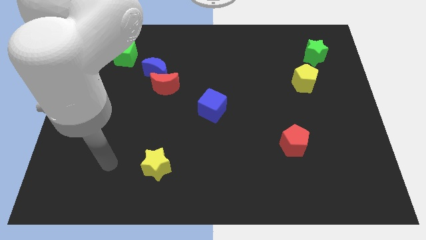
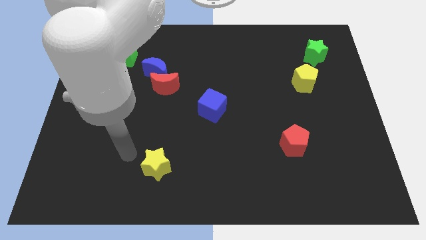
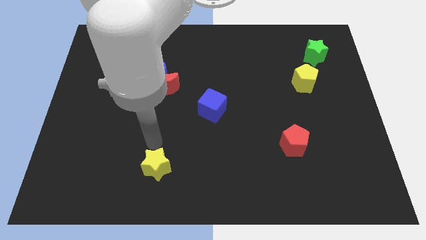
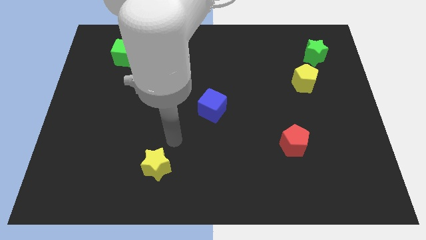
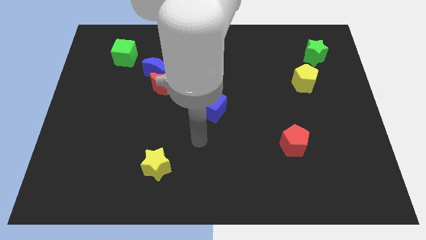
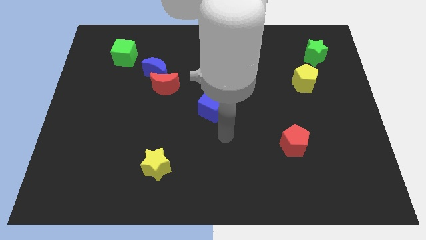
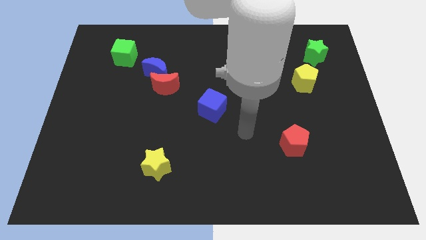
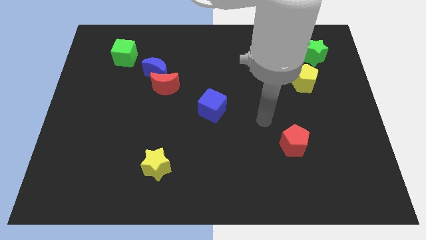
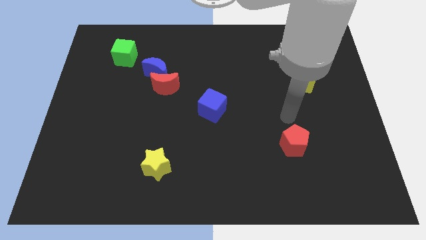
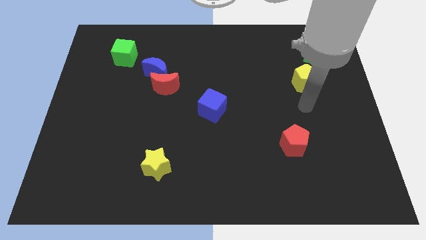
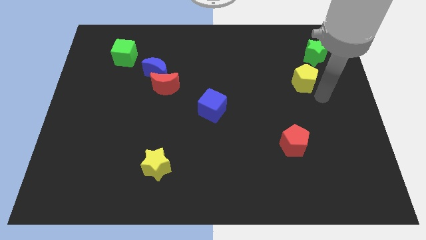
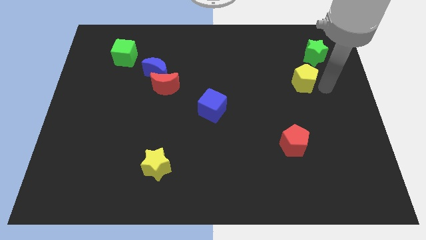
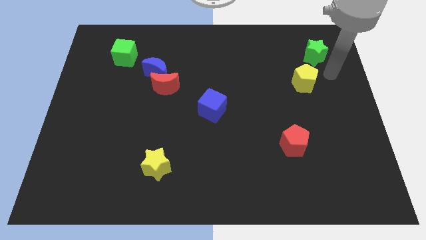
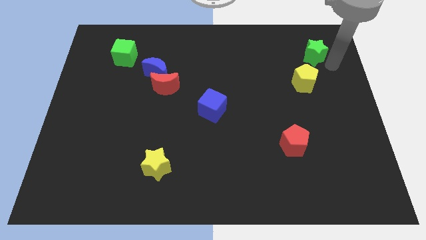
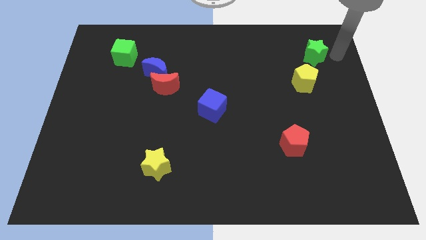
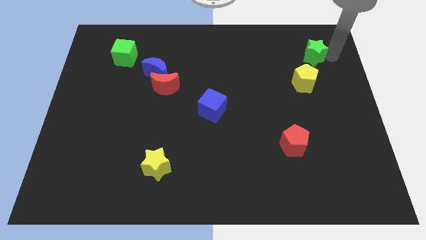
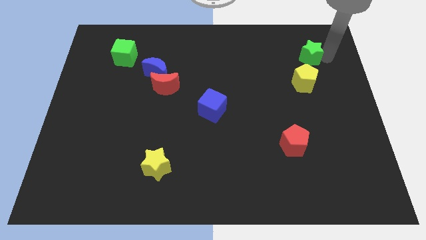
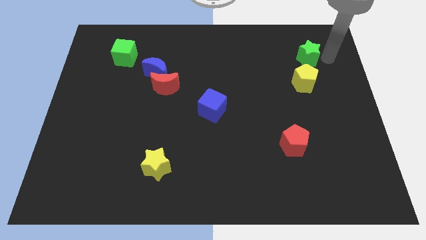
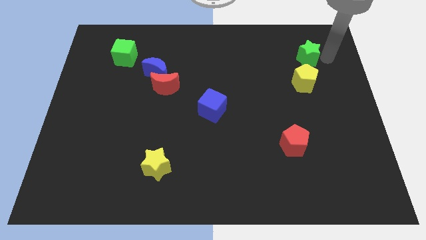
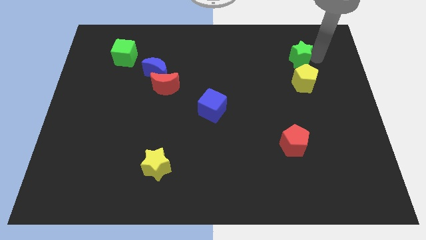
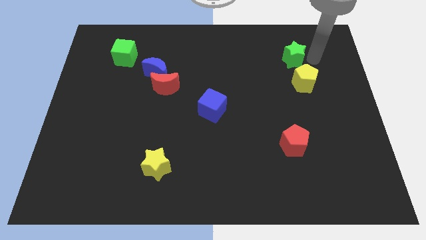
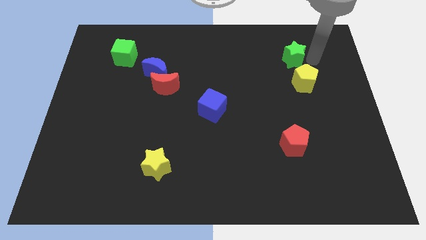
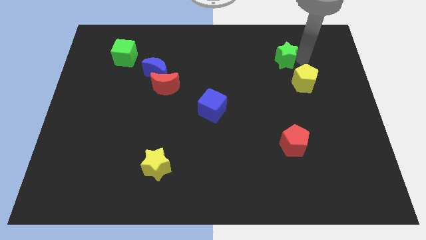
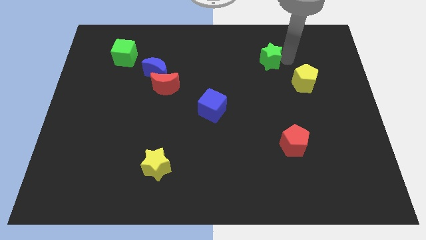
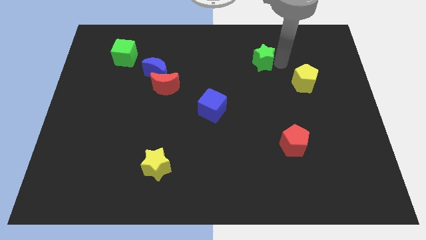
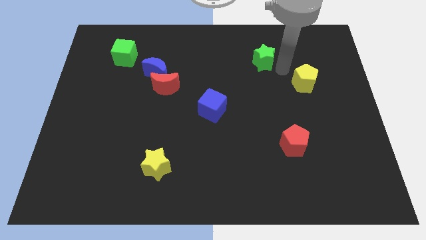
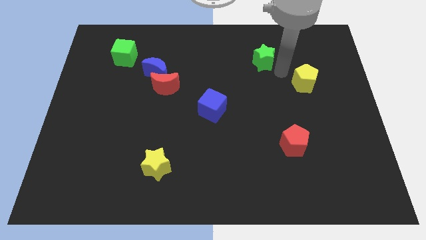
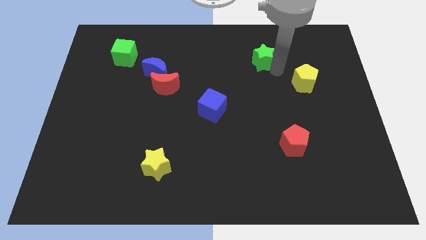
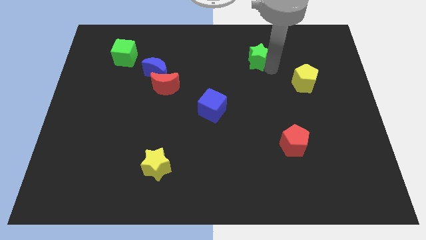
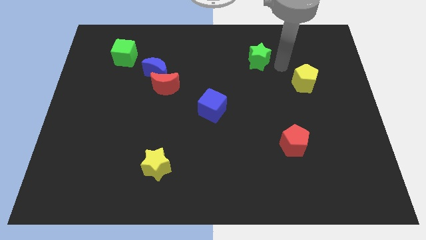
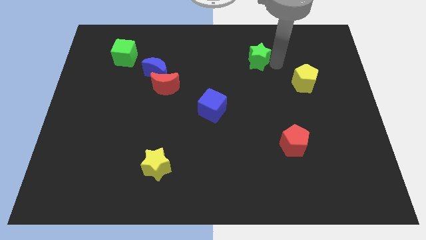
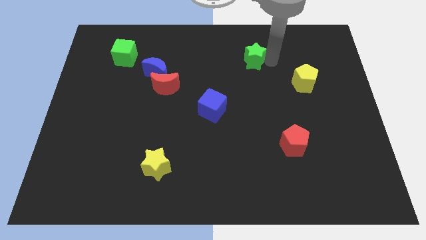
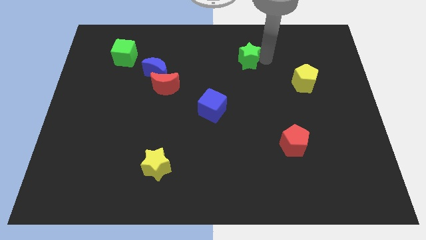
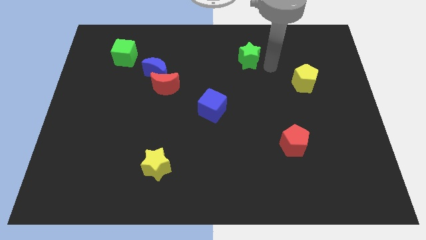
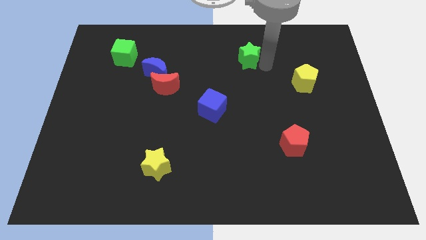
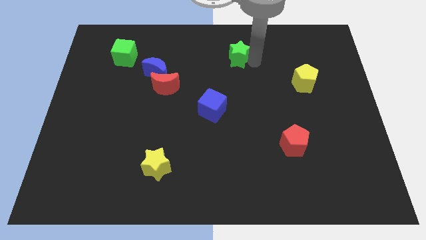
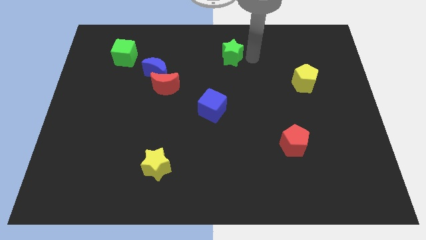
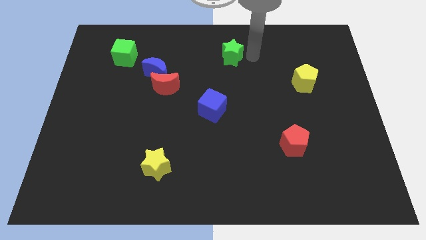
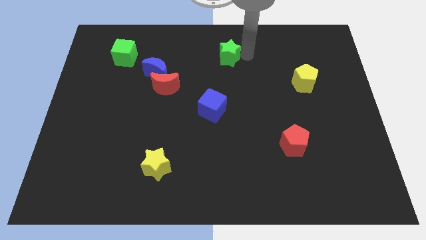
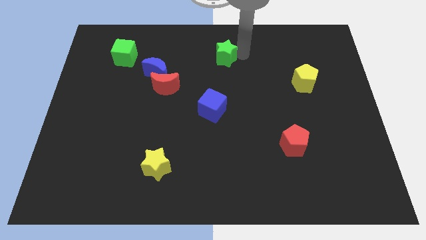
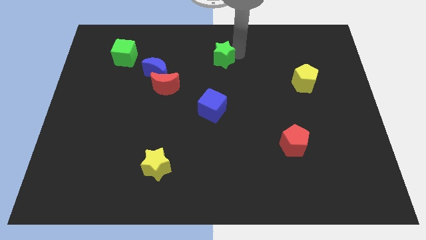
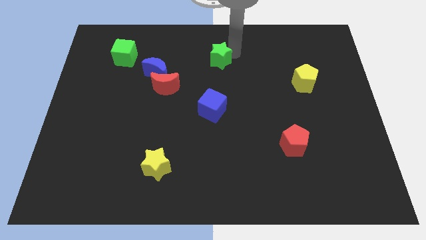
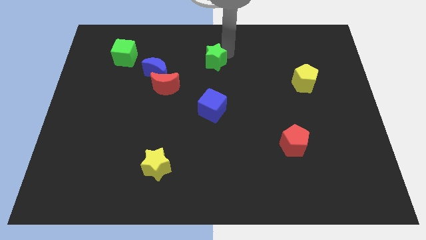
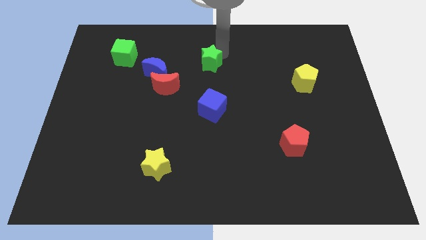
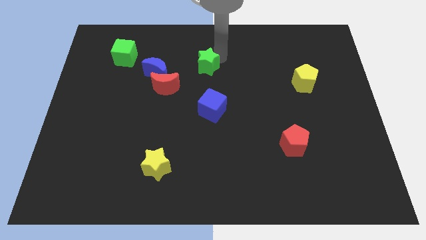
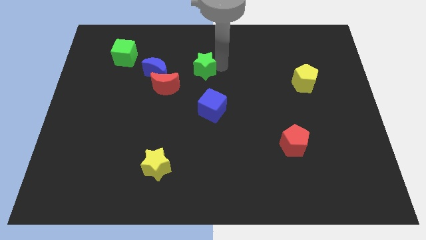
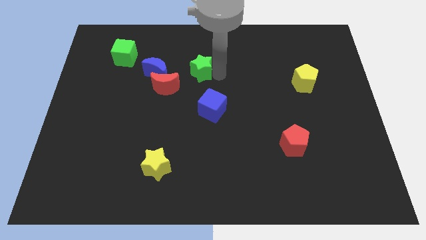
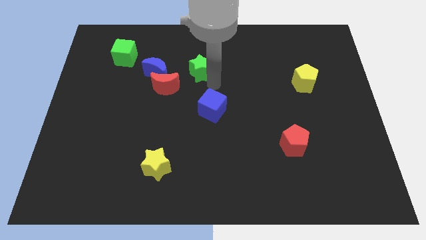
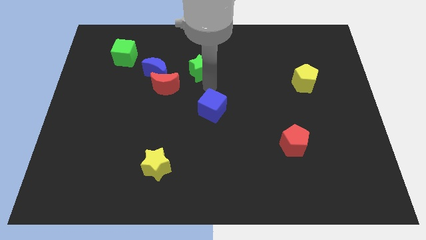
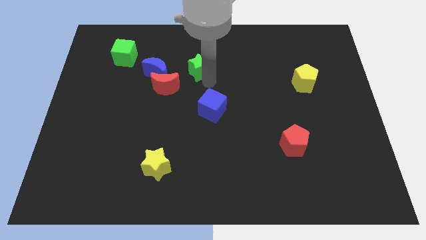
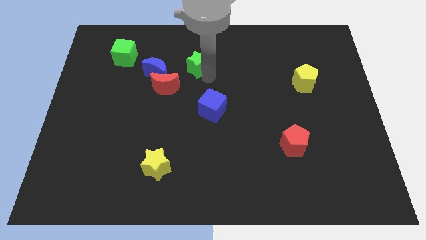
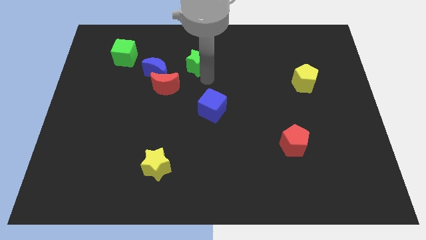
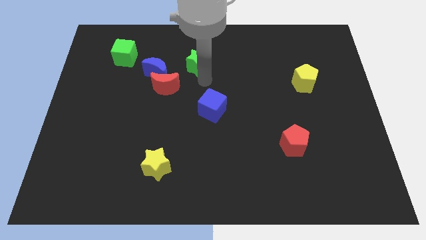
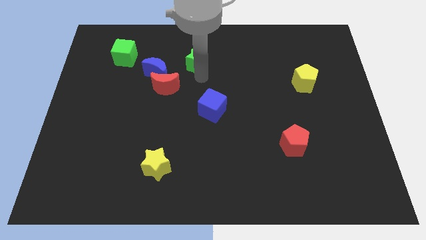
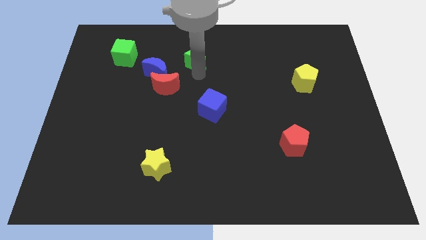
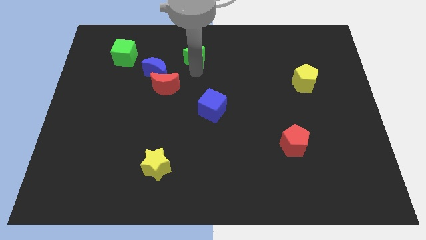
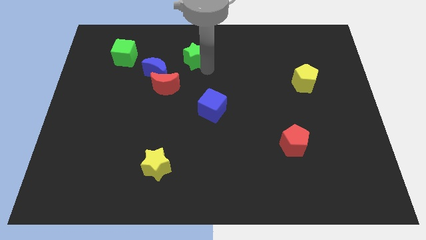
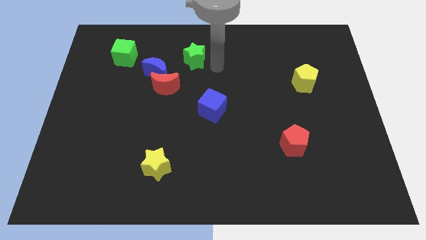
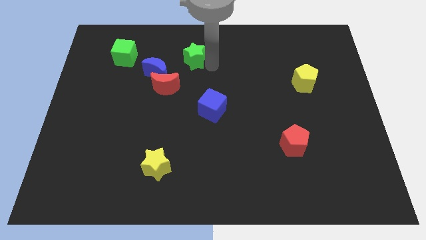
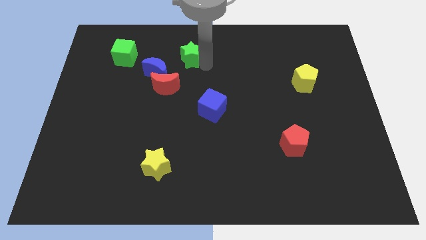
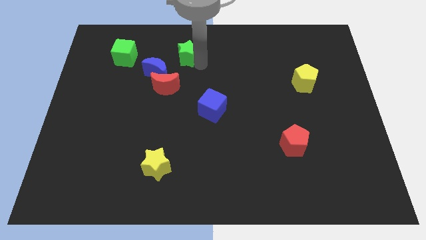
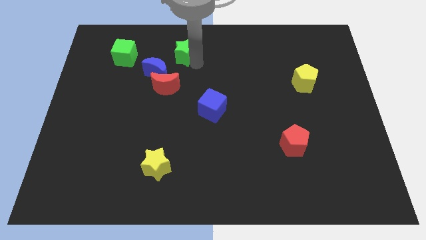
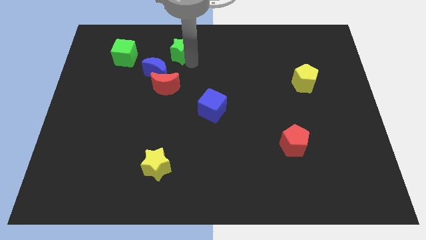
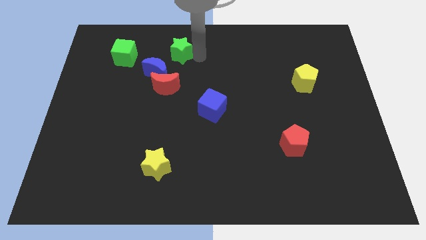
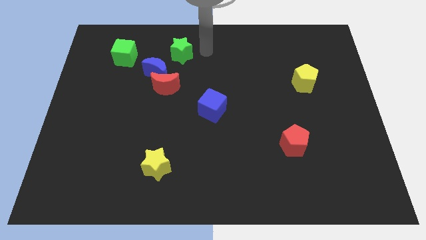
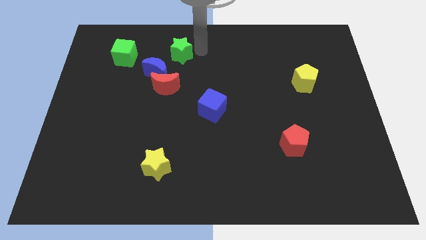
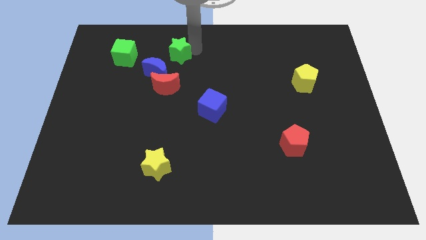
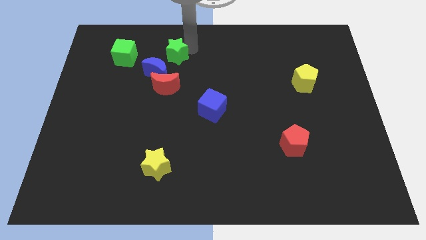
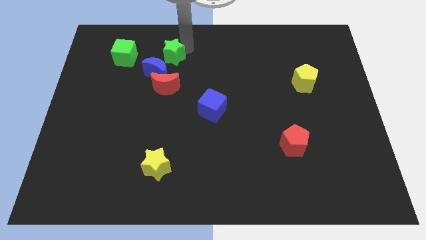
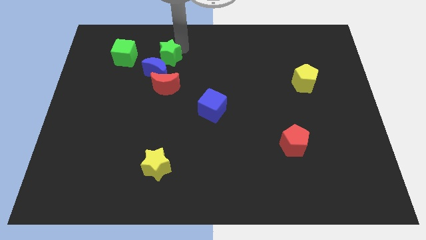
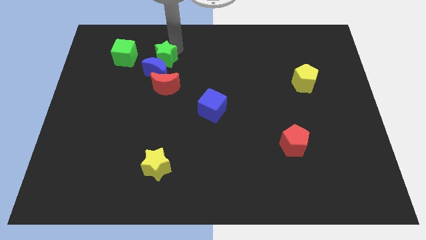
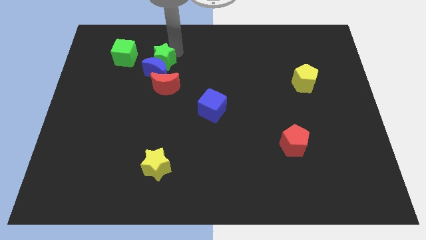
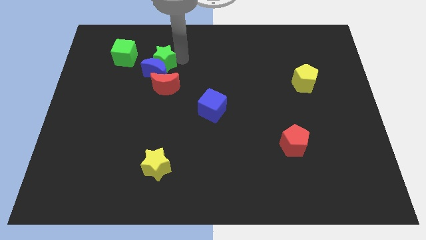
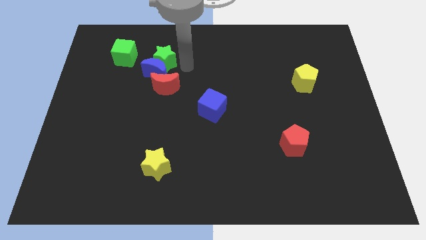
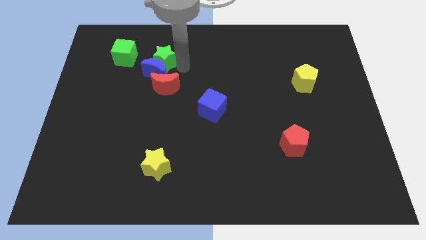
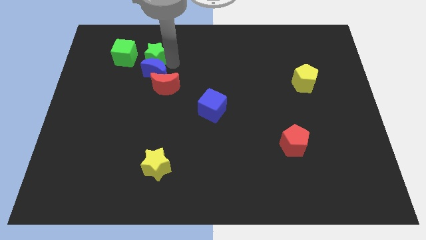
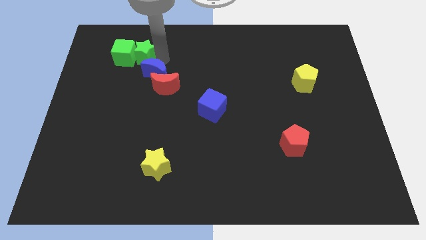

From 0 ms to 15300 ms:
put the green star close to the green cube
